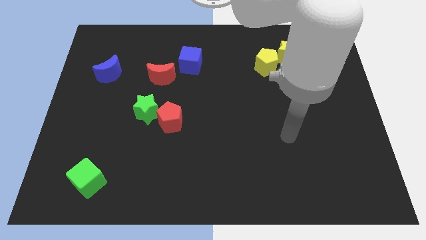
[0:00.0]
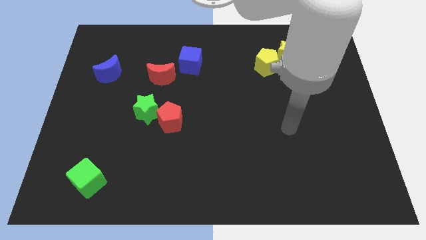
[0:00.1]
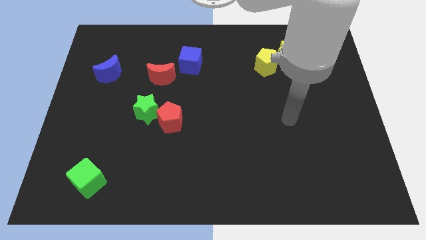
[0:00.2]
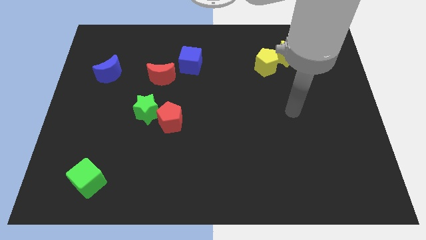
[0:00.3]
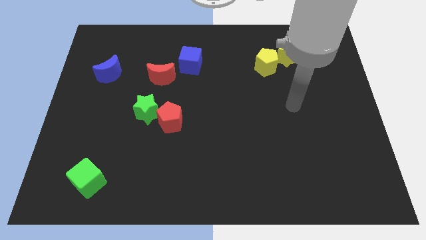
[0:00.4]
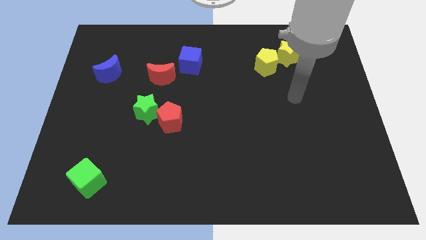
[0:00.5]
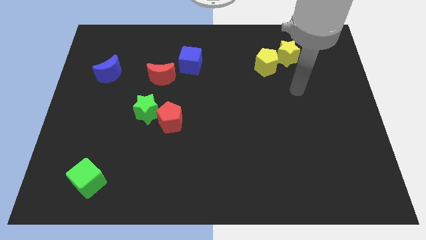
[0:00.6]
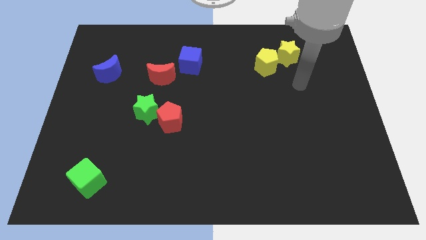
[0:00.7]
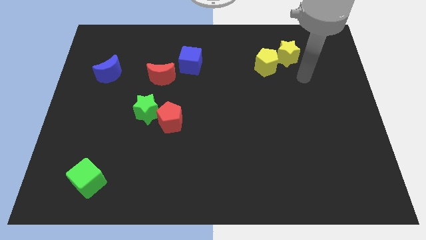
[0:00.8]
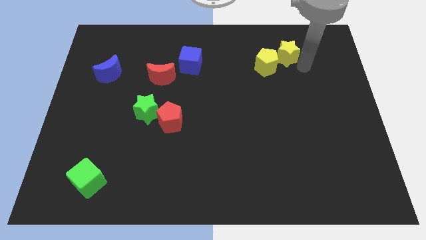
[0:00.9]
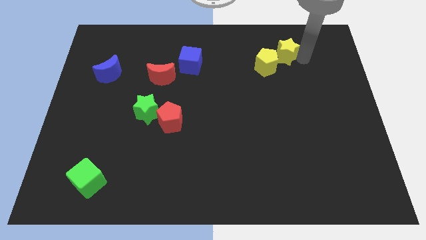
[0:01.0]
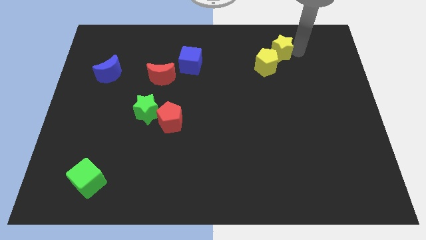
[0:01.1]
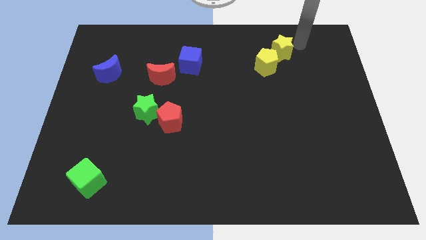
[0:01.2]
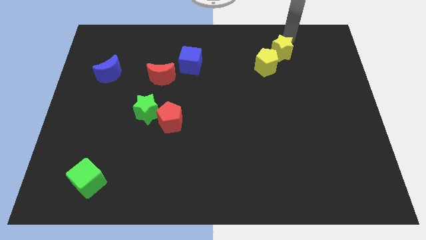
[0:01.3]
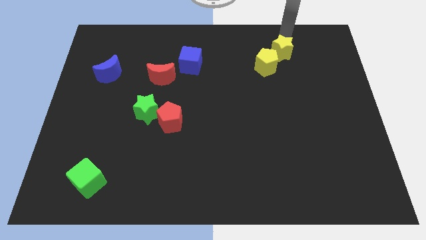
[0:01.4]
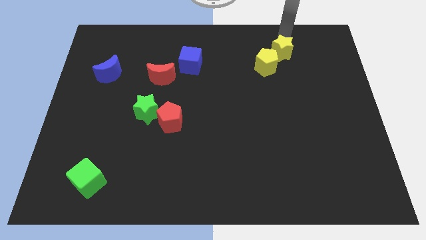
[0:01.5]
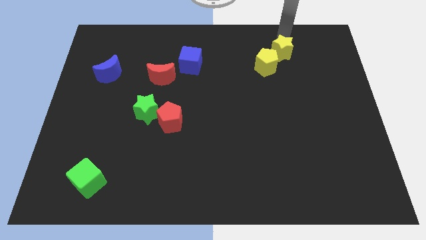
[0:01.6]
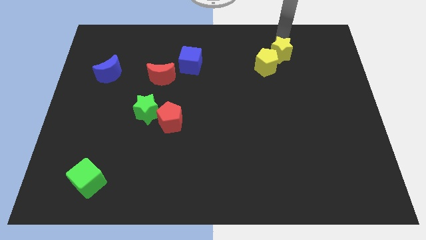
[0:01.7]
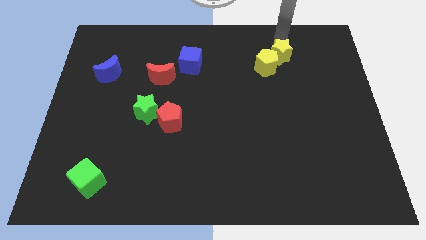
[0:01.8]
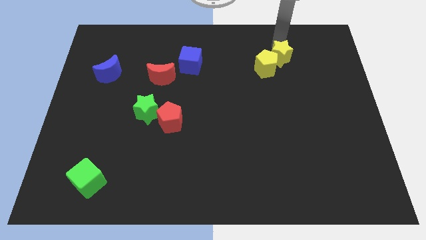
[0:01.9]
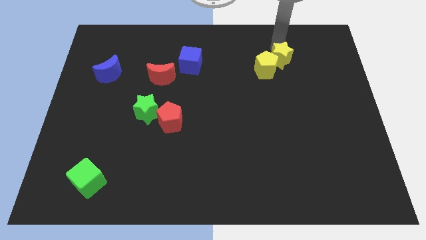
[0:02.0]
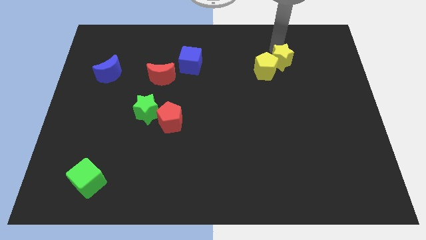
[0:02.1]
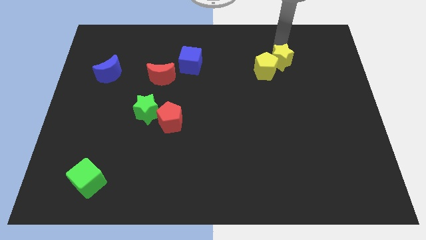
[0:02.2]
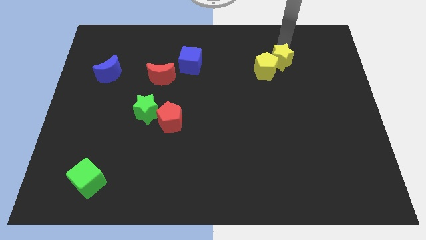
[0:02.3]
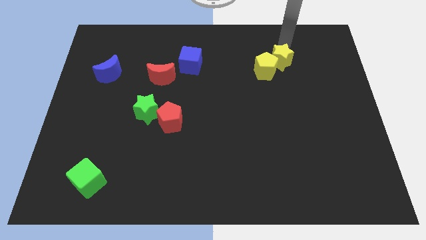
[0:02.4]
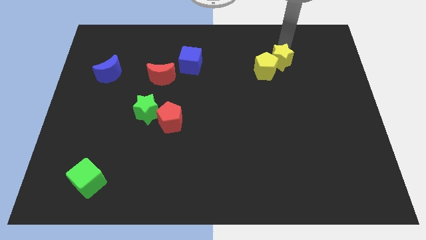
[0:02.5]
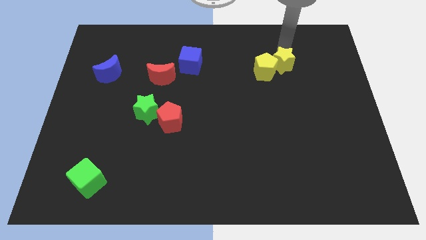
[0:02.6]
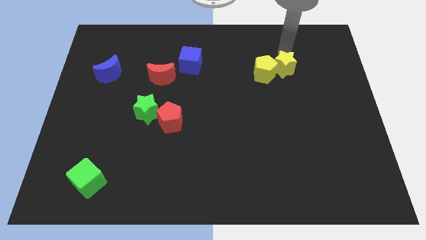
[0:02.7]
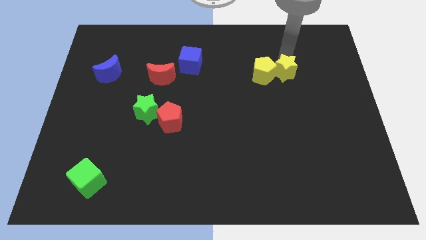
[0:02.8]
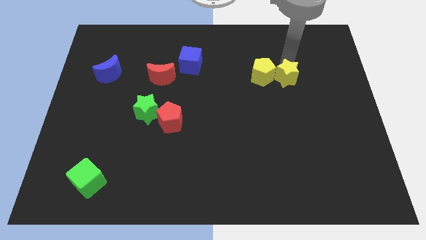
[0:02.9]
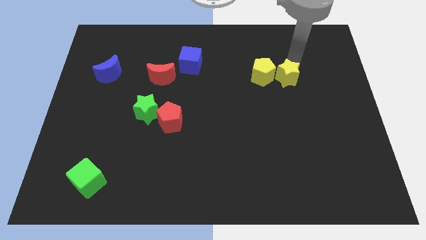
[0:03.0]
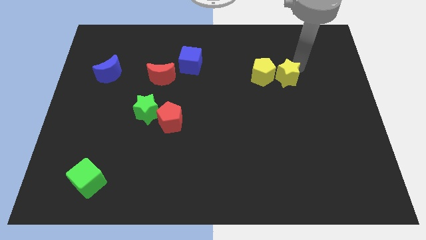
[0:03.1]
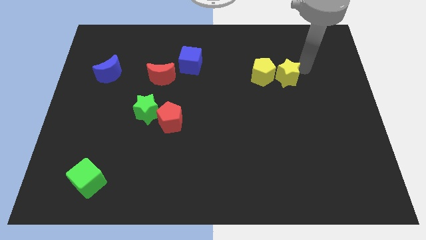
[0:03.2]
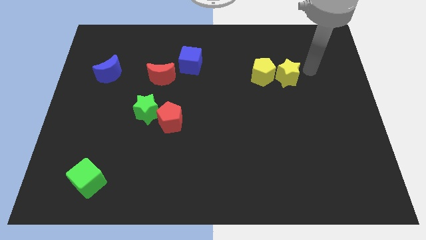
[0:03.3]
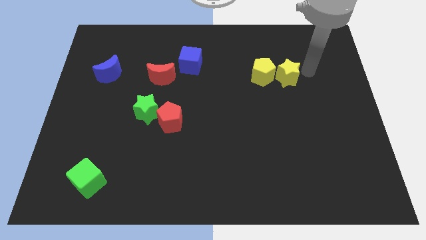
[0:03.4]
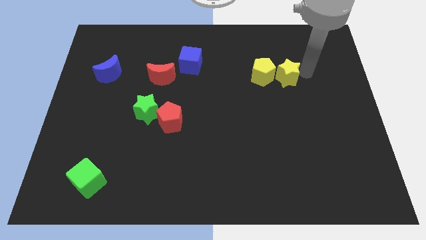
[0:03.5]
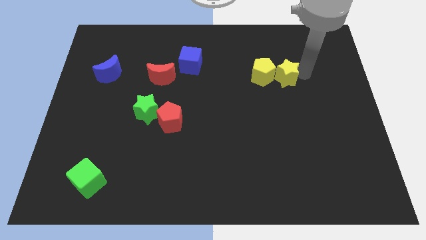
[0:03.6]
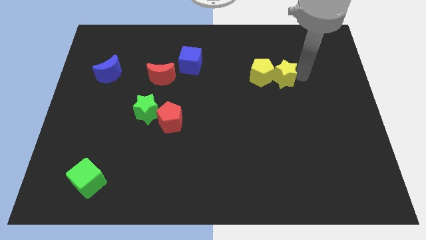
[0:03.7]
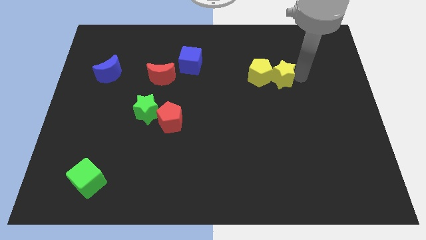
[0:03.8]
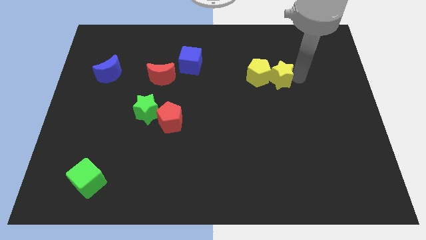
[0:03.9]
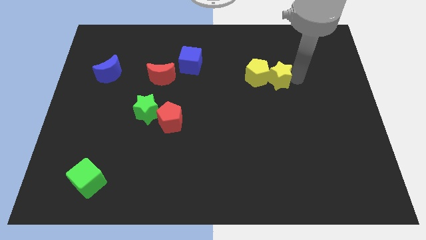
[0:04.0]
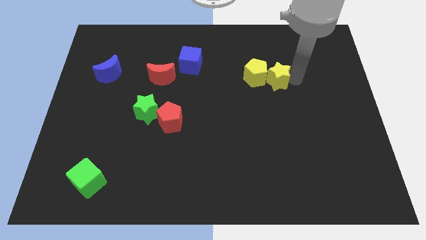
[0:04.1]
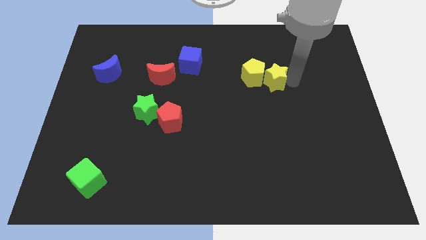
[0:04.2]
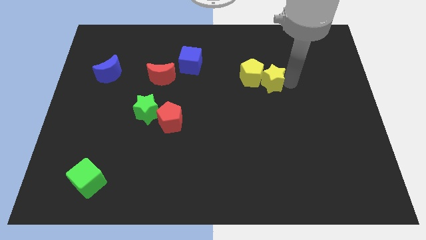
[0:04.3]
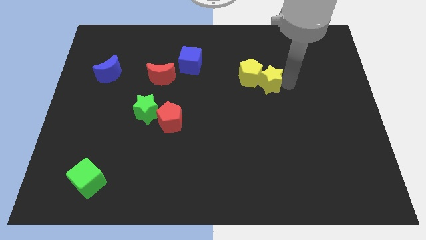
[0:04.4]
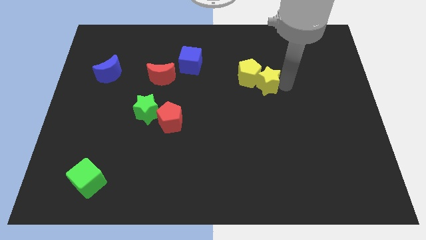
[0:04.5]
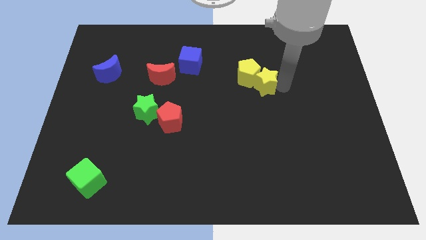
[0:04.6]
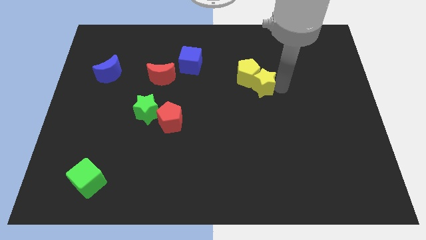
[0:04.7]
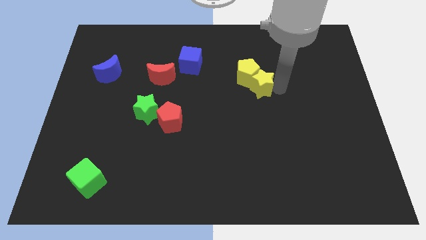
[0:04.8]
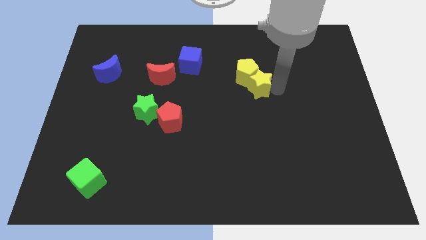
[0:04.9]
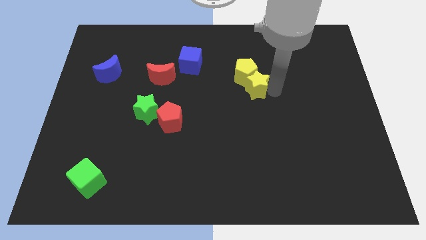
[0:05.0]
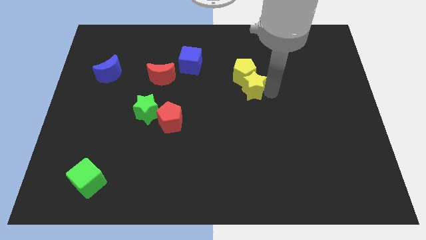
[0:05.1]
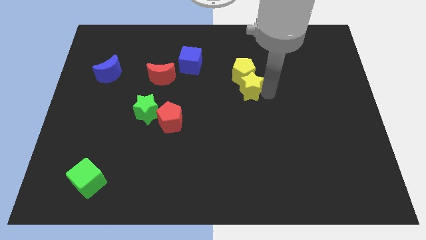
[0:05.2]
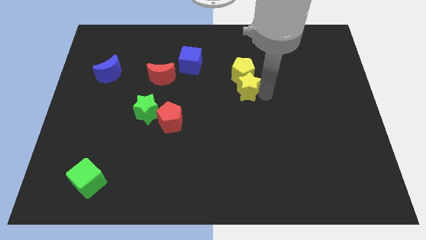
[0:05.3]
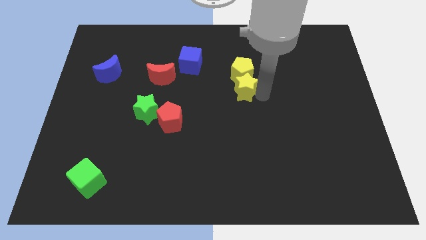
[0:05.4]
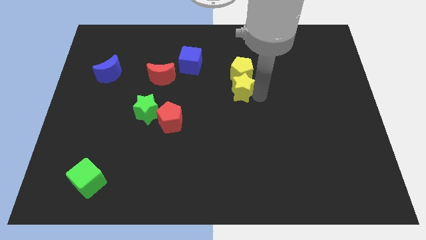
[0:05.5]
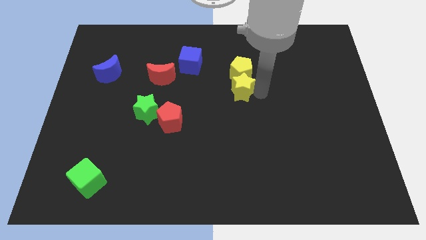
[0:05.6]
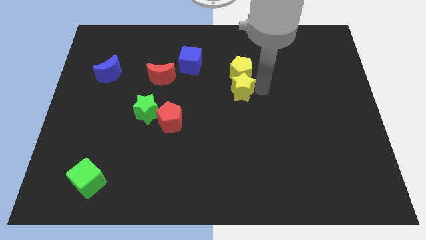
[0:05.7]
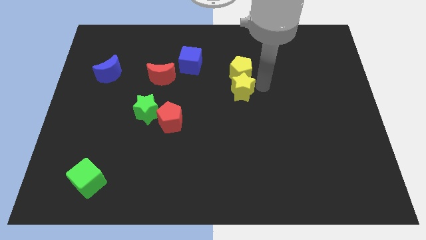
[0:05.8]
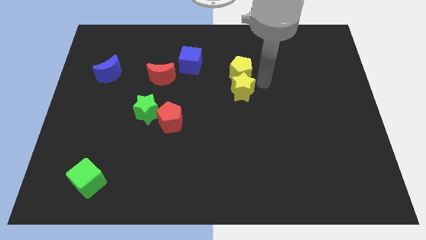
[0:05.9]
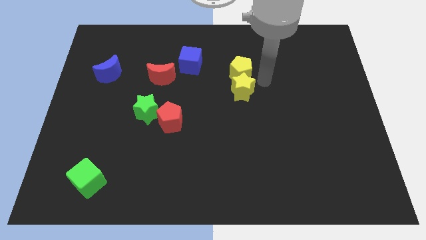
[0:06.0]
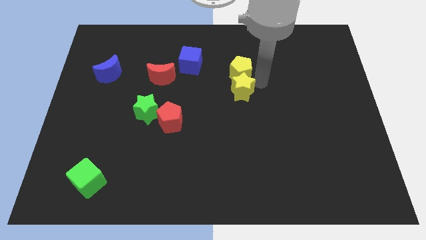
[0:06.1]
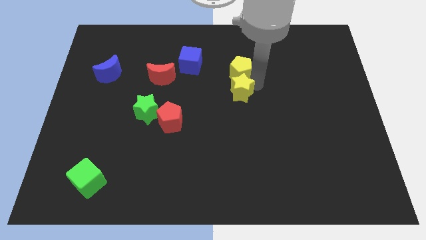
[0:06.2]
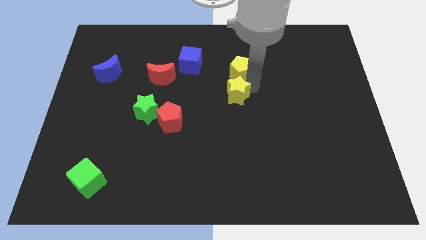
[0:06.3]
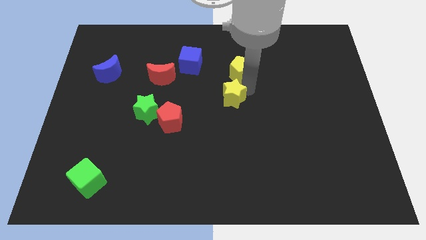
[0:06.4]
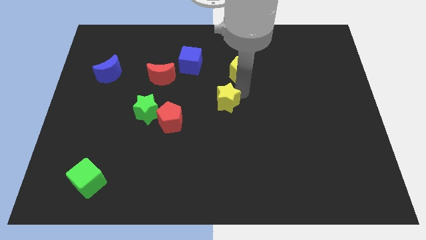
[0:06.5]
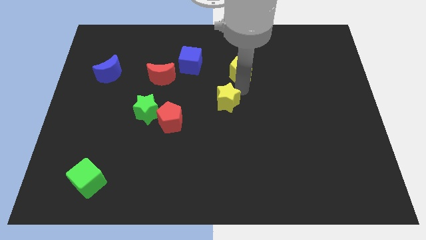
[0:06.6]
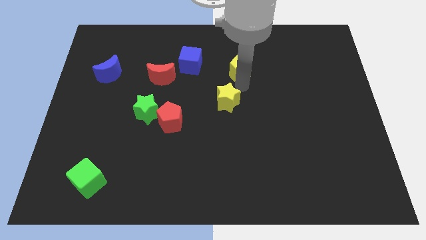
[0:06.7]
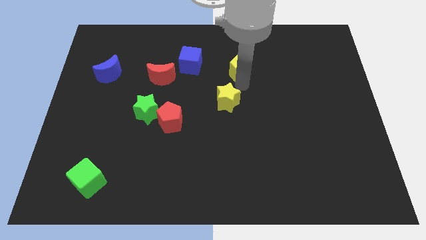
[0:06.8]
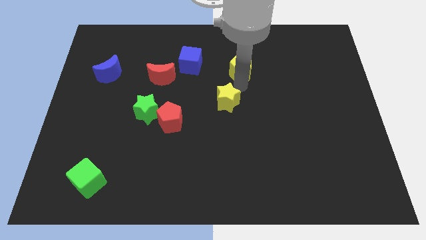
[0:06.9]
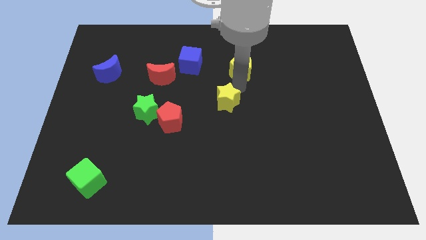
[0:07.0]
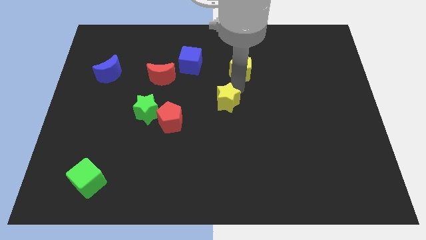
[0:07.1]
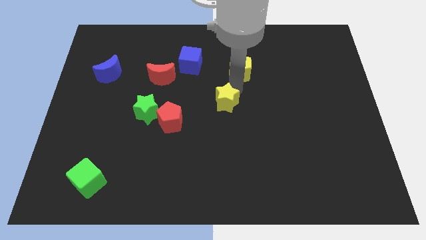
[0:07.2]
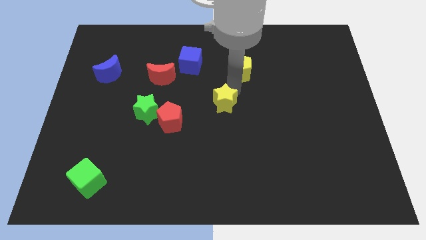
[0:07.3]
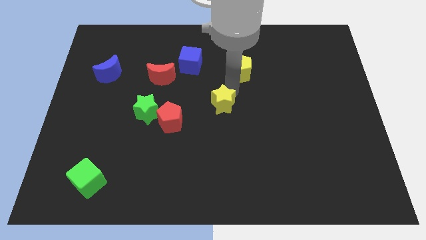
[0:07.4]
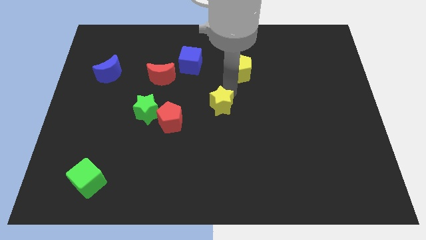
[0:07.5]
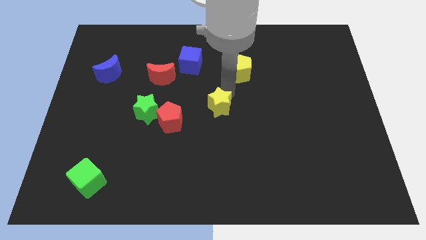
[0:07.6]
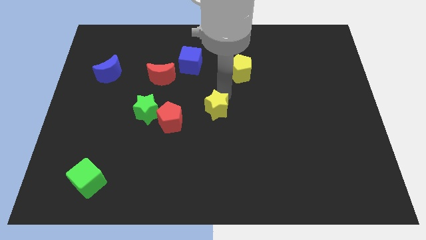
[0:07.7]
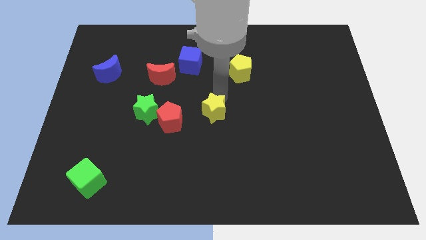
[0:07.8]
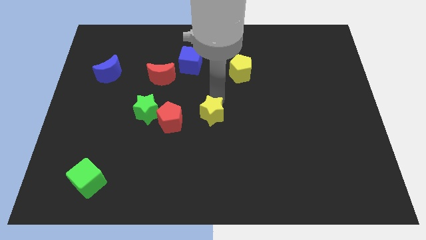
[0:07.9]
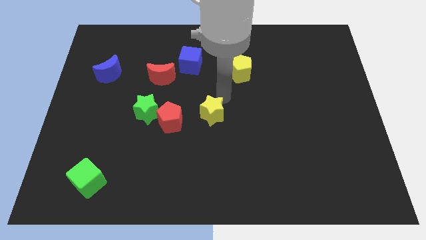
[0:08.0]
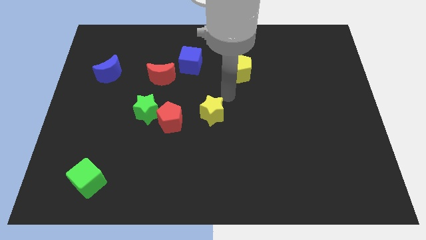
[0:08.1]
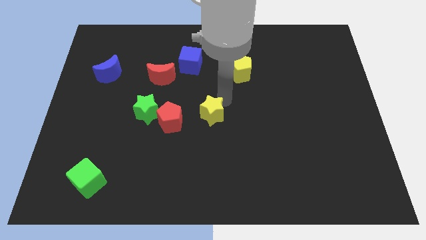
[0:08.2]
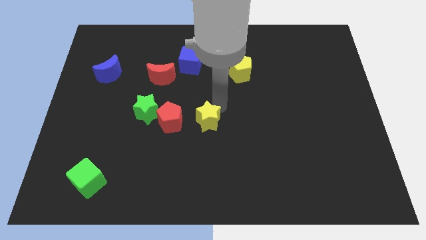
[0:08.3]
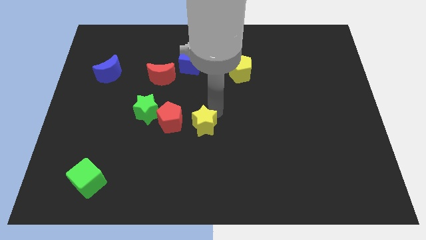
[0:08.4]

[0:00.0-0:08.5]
move the yellow star diagonally down and to the right of the red pentagon
